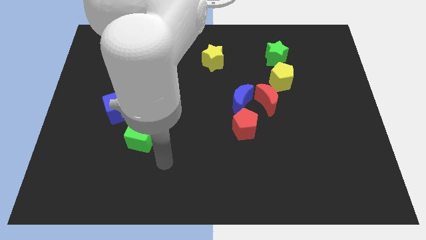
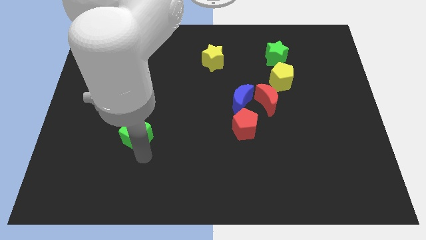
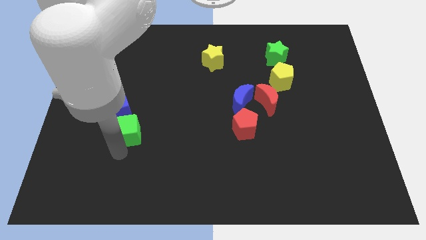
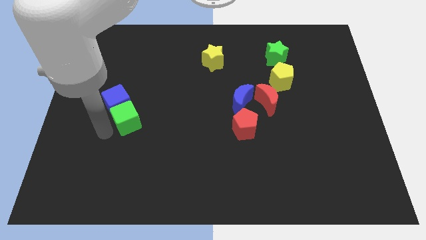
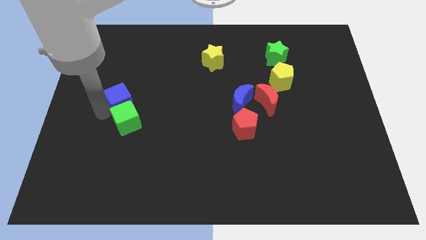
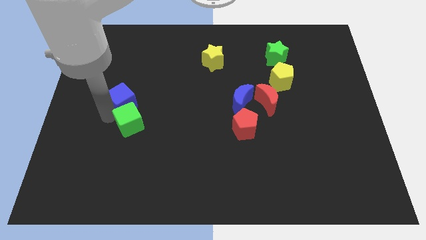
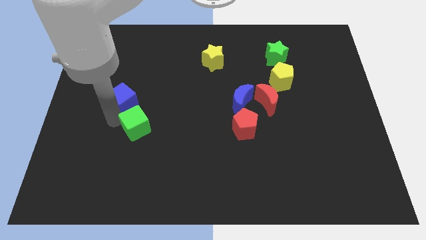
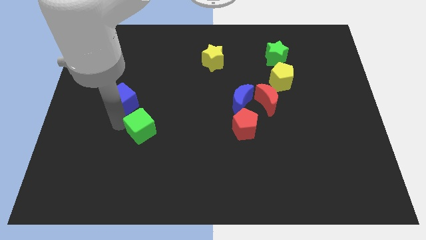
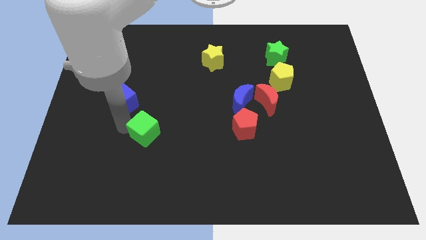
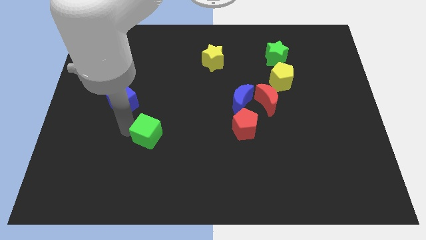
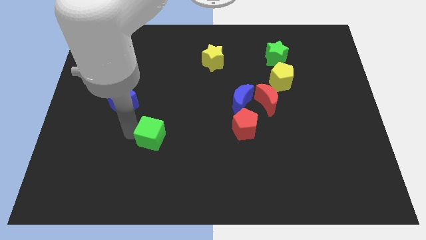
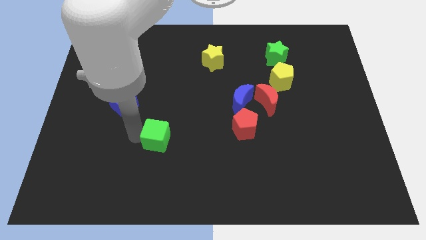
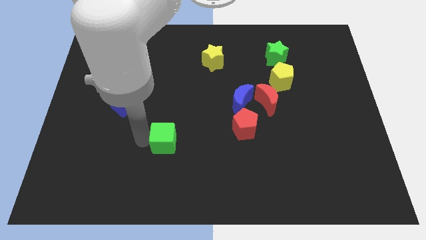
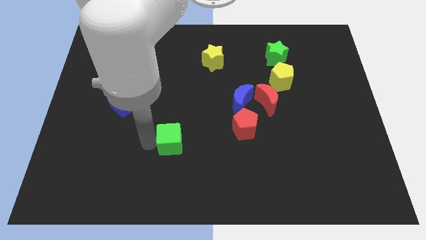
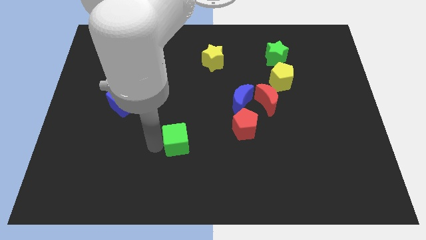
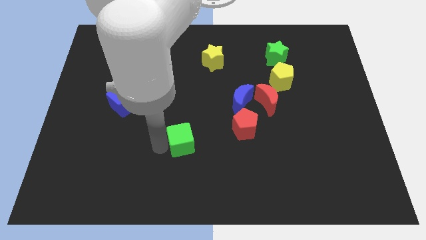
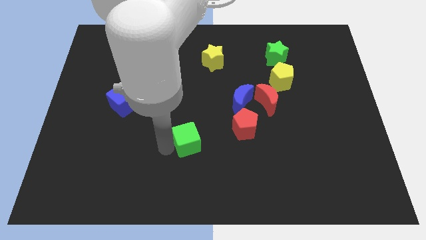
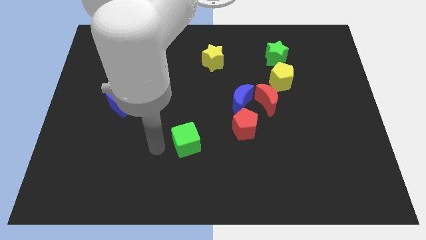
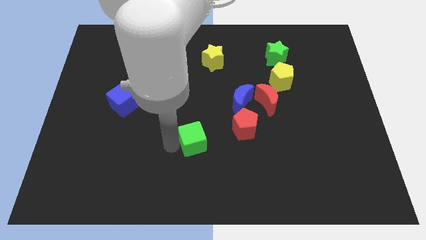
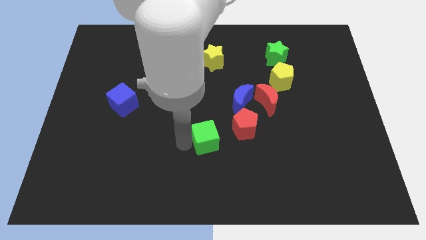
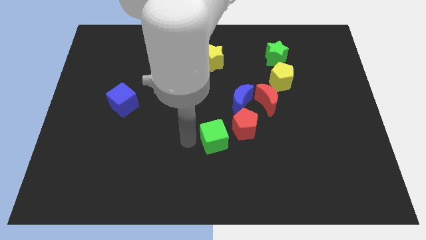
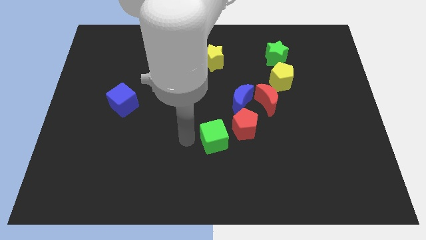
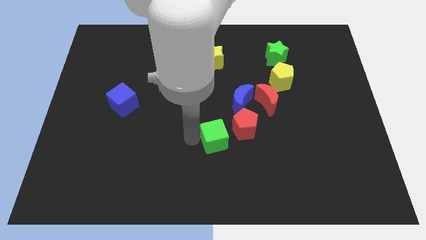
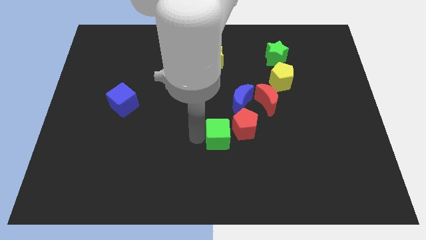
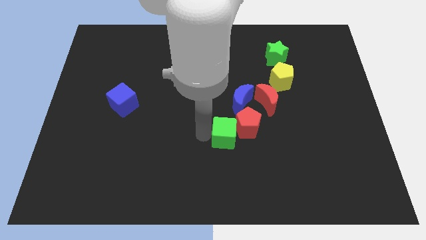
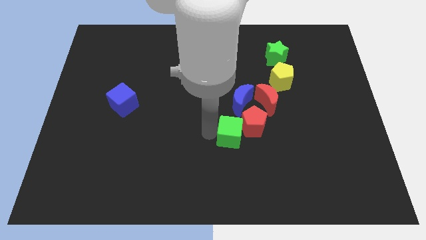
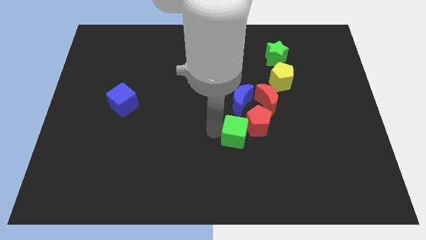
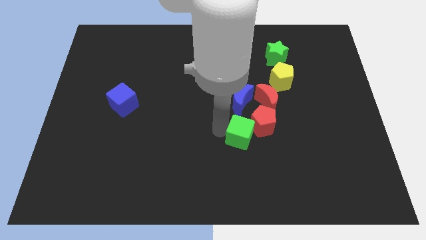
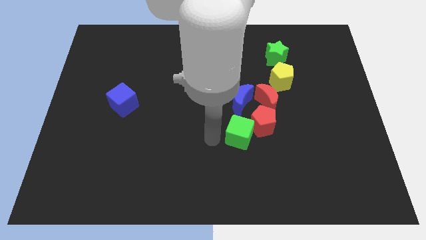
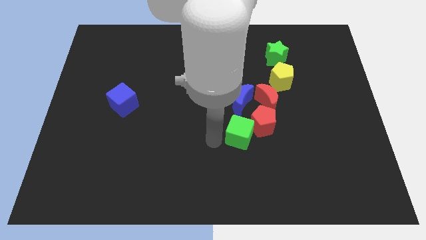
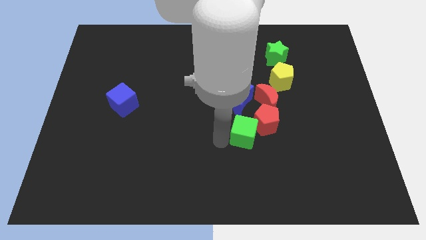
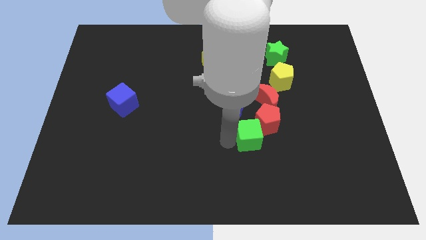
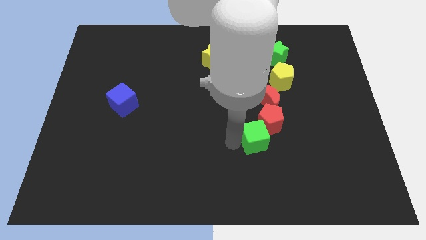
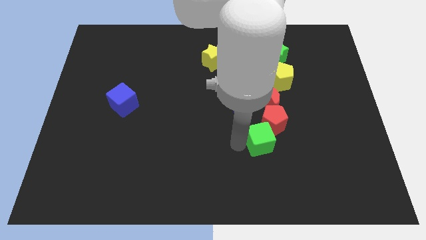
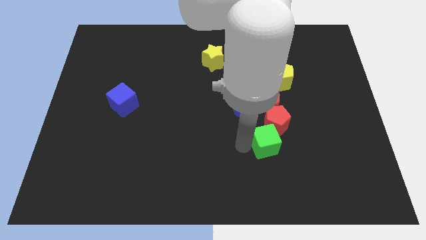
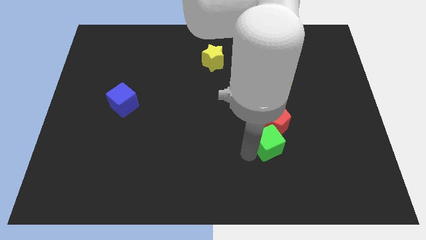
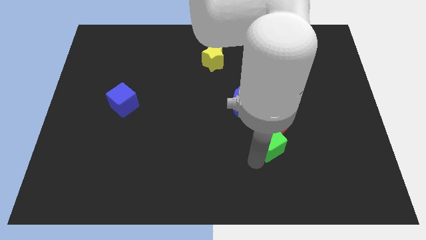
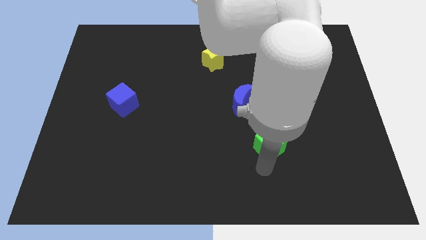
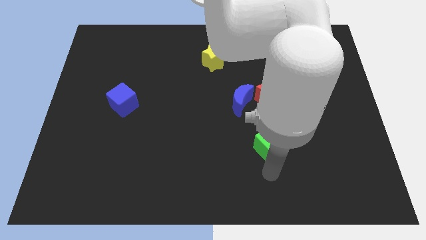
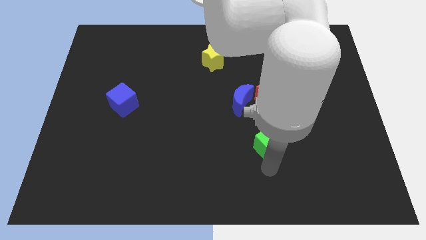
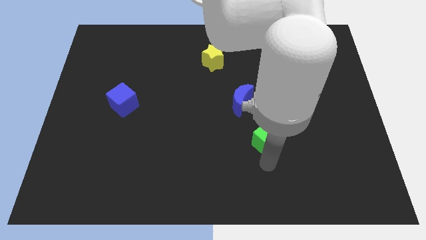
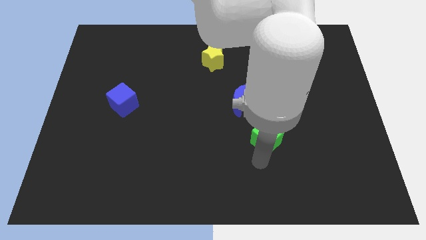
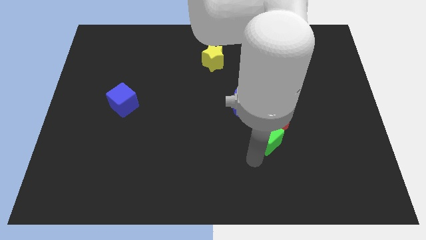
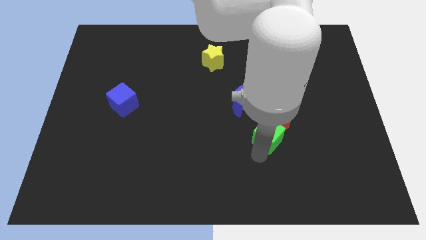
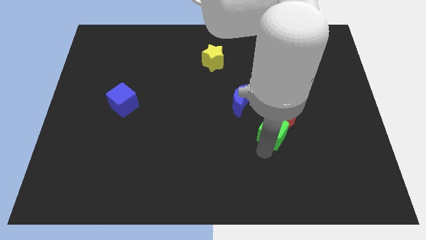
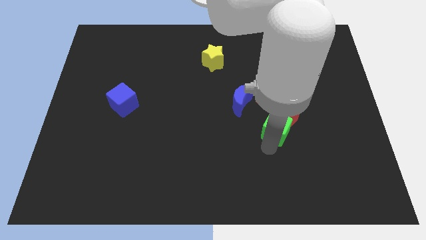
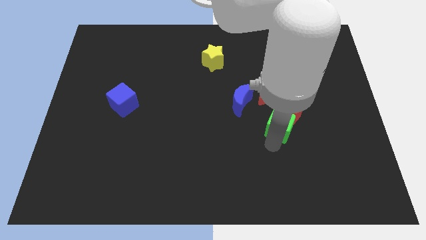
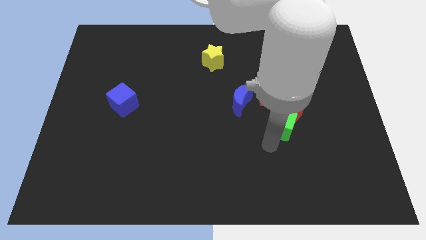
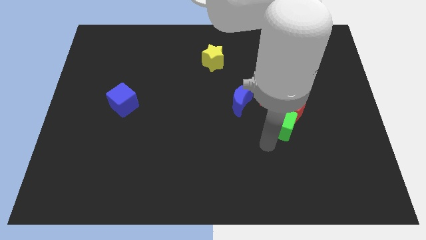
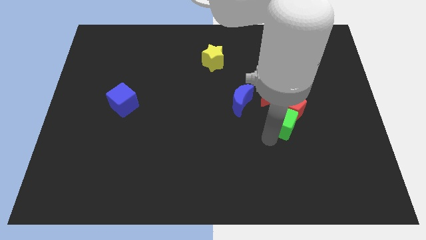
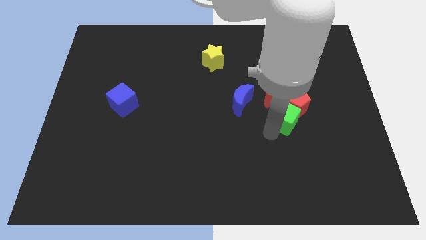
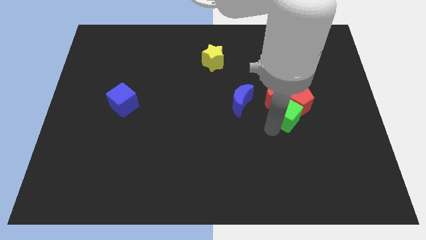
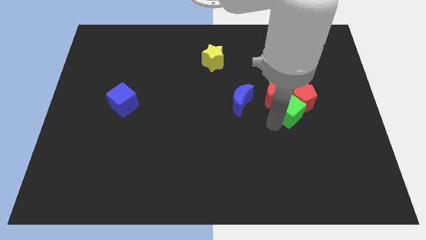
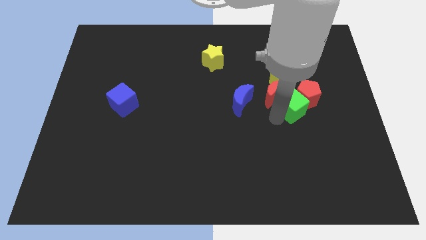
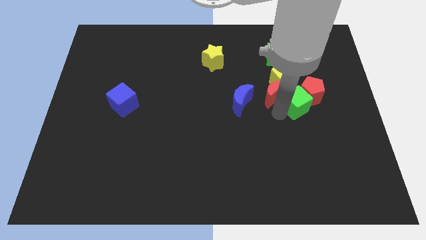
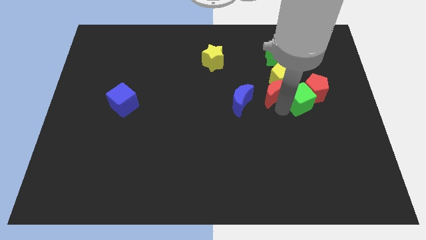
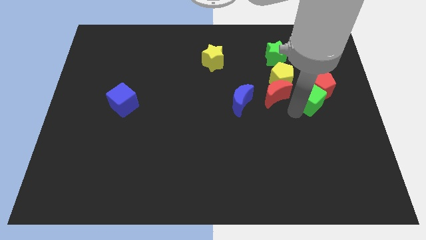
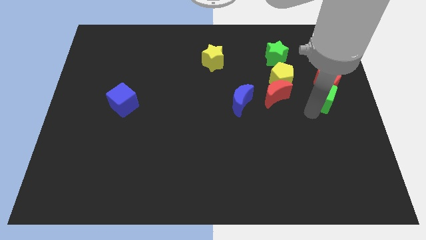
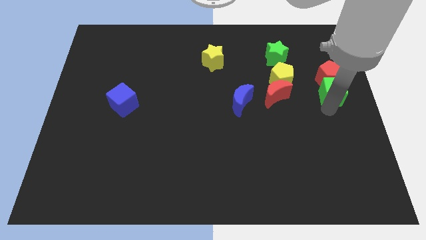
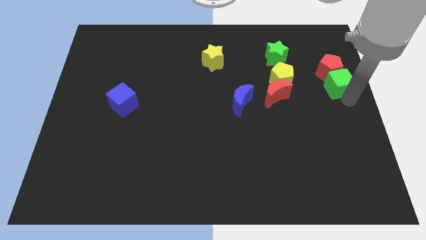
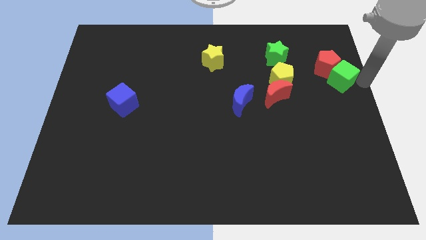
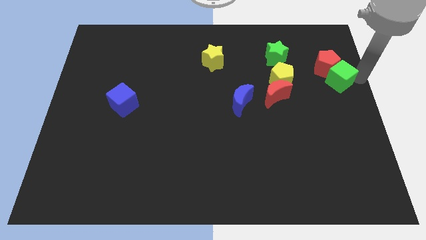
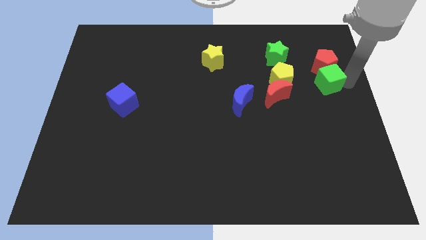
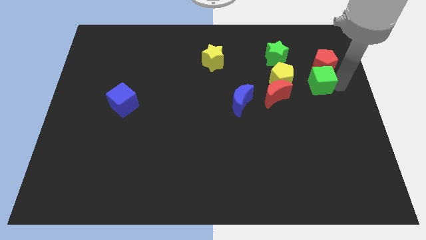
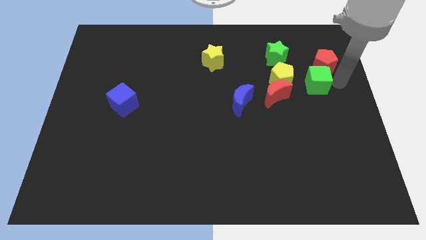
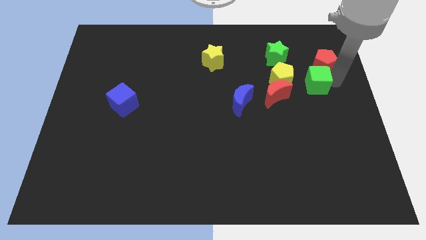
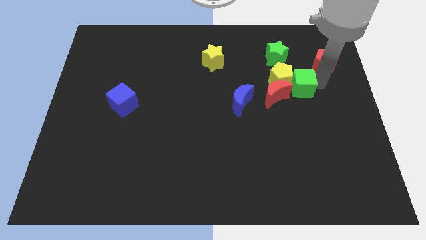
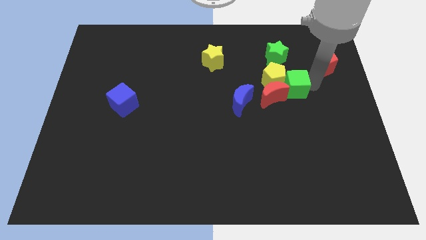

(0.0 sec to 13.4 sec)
push the green cube to the bottom of the green star

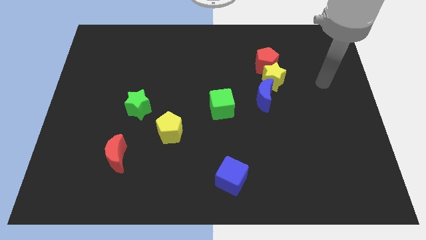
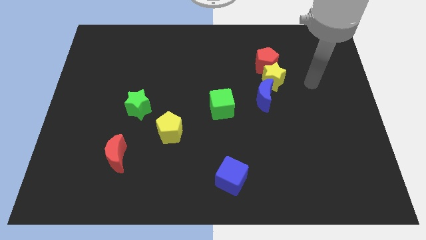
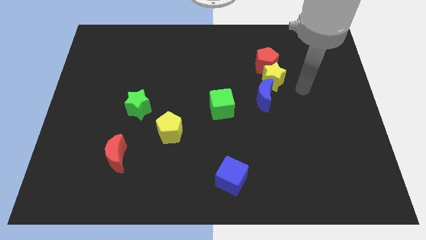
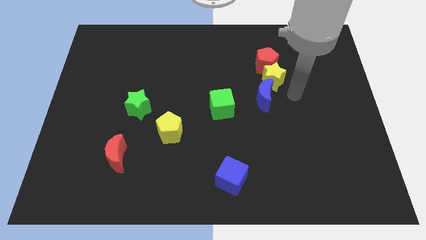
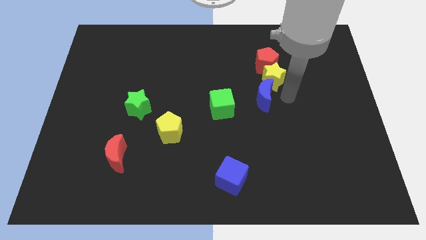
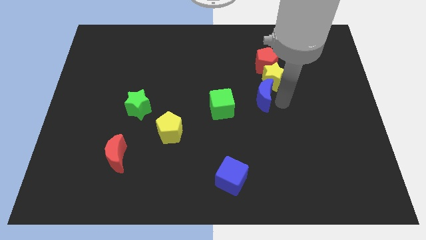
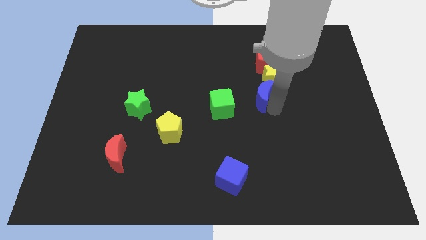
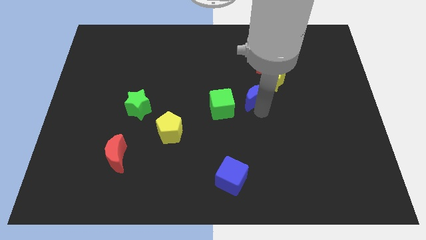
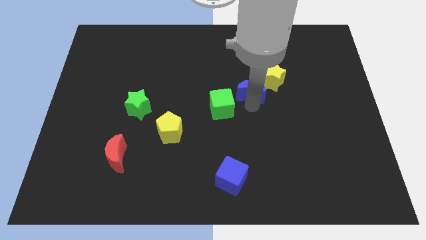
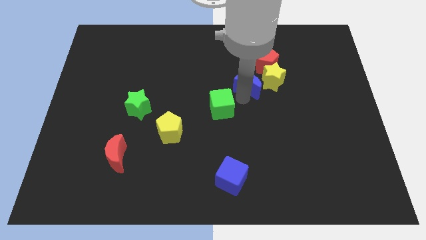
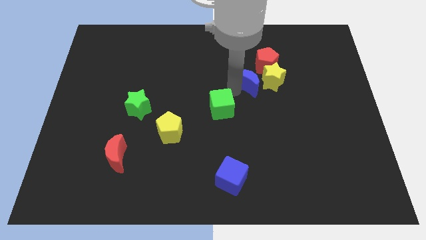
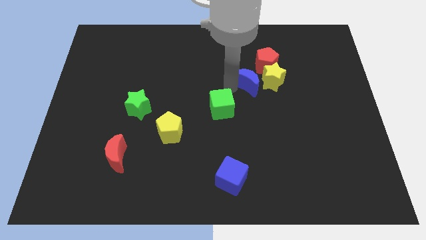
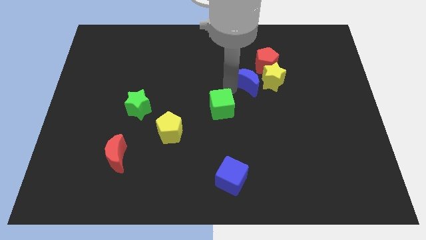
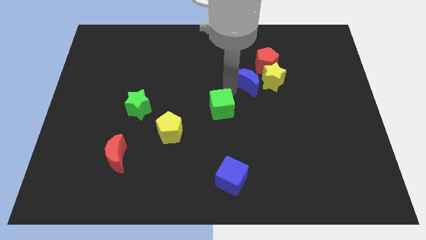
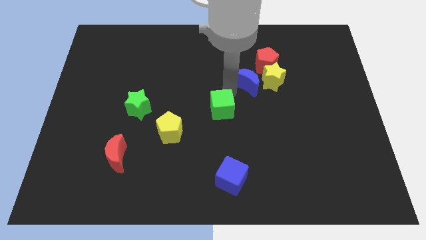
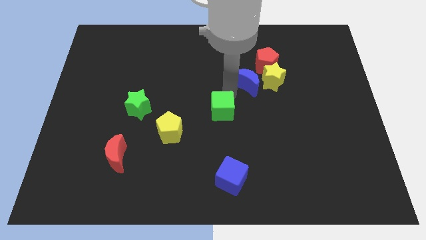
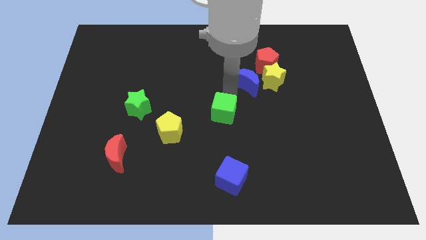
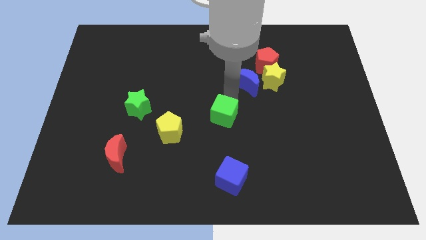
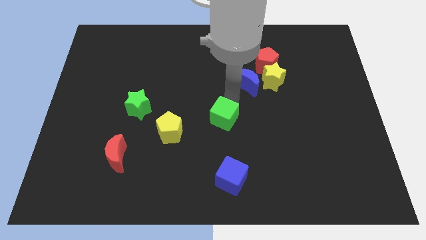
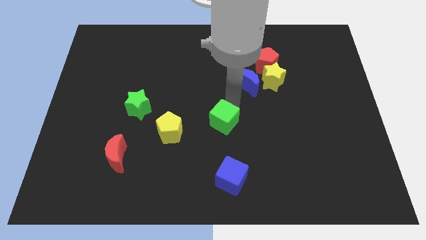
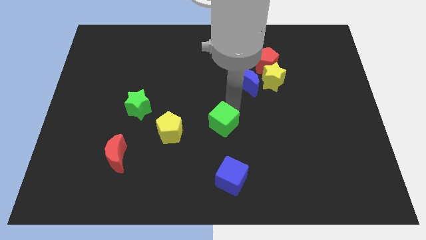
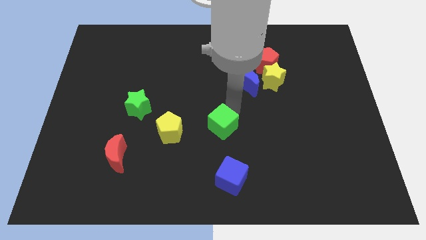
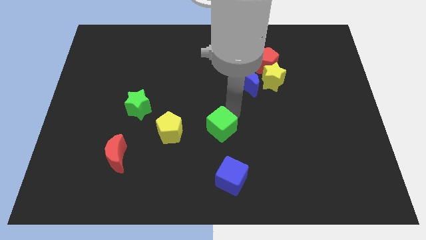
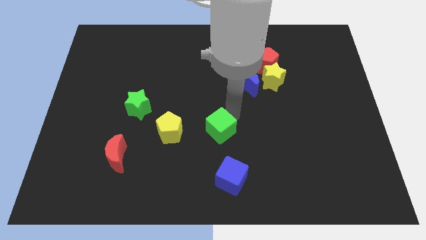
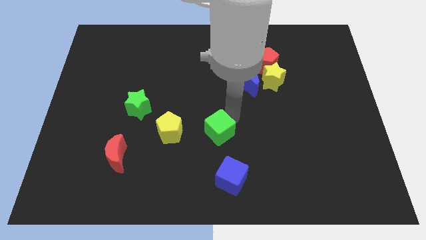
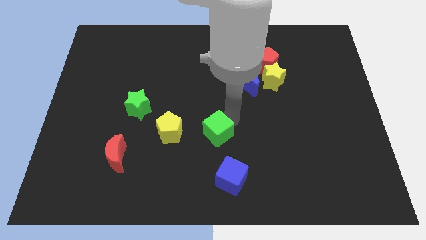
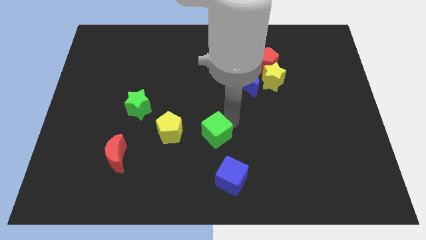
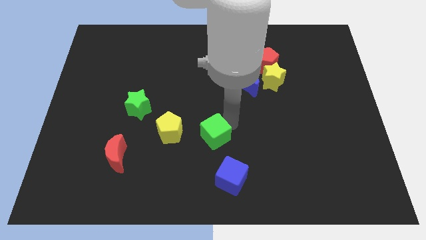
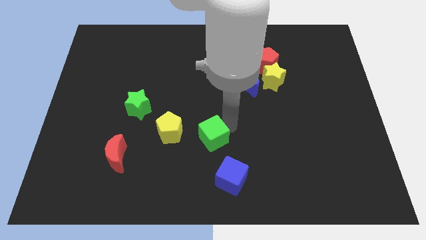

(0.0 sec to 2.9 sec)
put the green cube to the top left side of the blue cube
